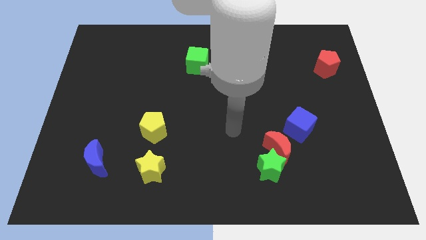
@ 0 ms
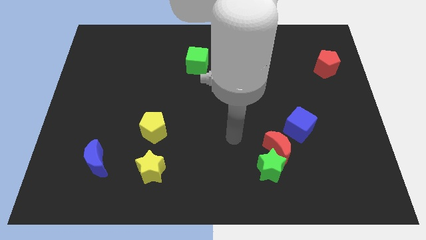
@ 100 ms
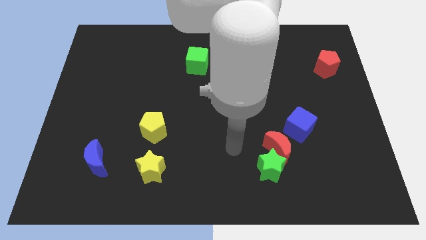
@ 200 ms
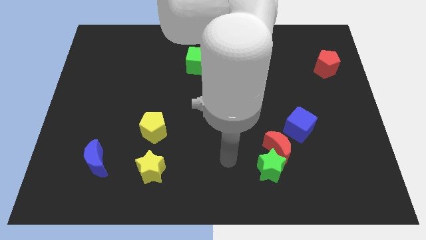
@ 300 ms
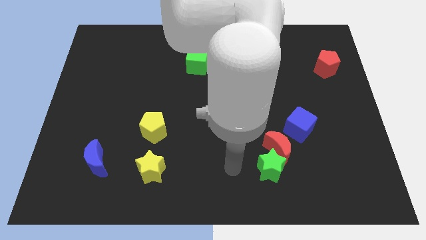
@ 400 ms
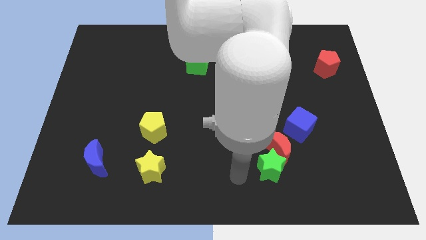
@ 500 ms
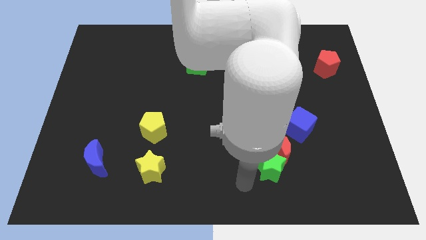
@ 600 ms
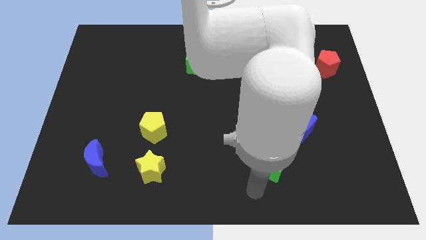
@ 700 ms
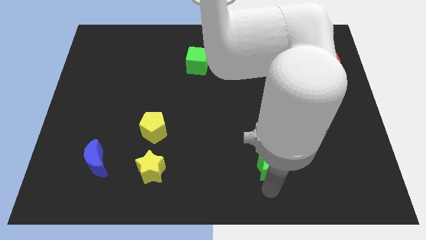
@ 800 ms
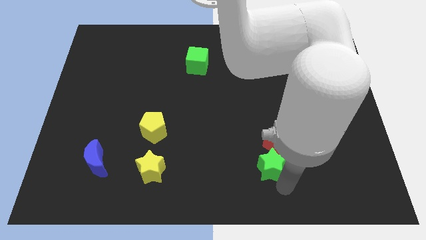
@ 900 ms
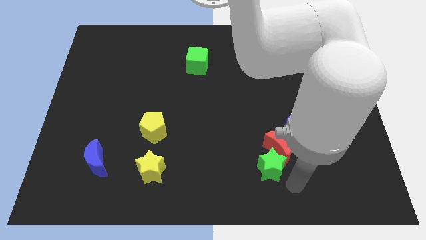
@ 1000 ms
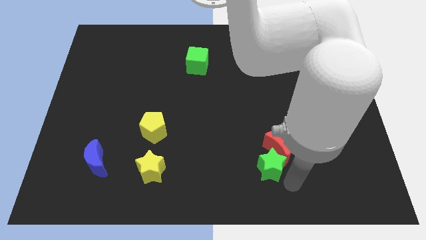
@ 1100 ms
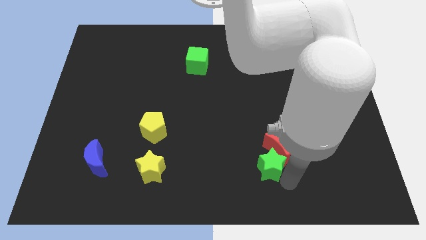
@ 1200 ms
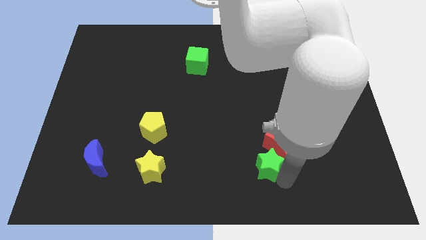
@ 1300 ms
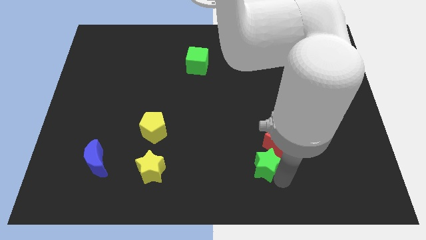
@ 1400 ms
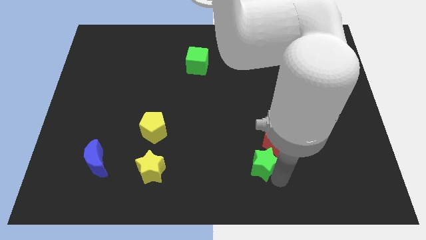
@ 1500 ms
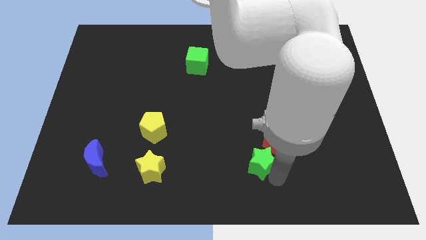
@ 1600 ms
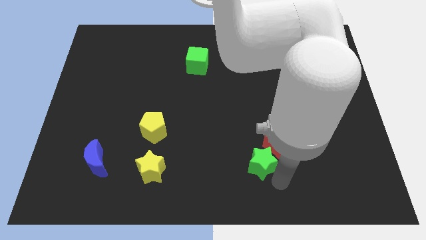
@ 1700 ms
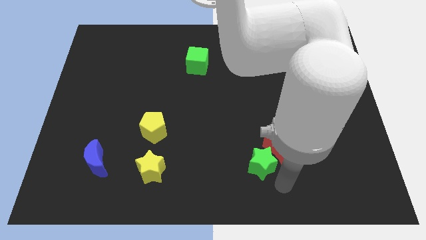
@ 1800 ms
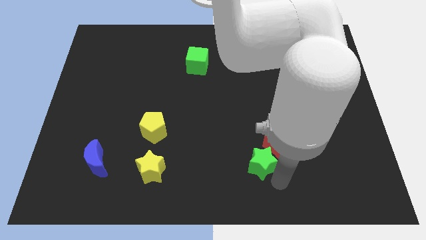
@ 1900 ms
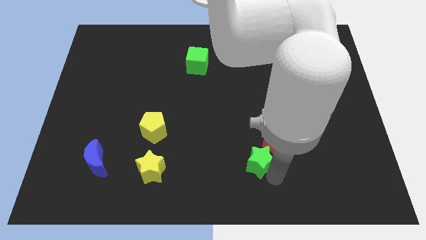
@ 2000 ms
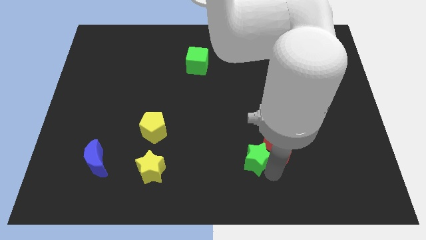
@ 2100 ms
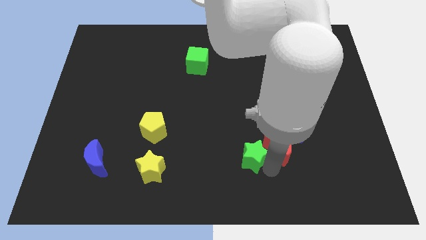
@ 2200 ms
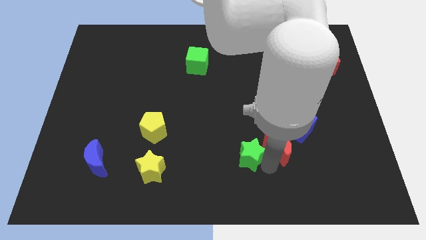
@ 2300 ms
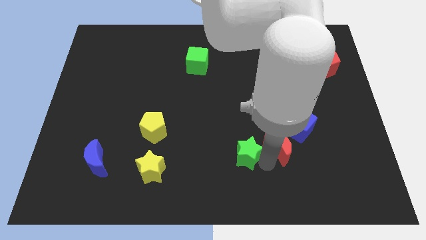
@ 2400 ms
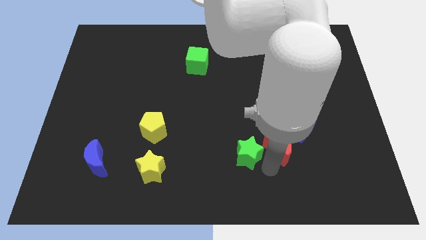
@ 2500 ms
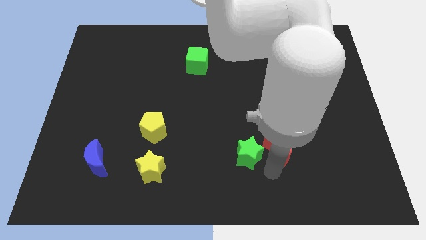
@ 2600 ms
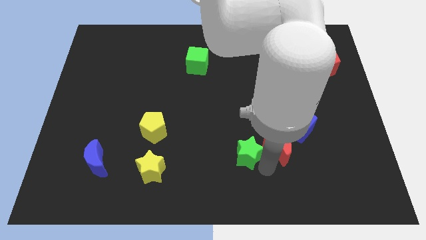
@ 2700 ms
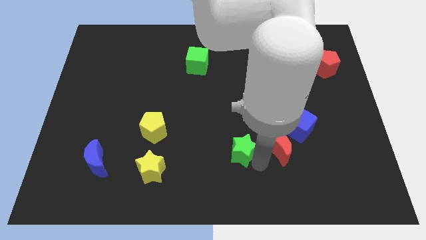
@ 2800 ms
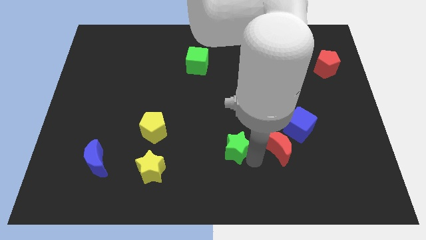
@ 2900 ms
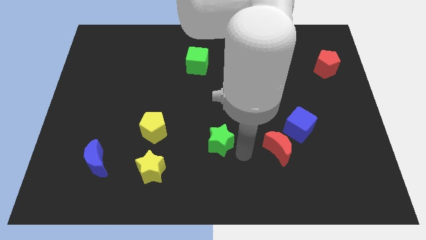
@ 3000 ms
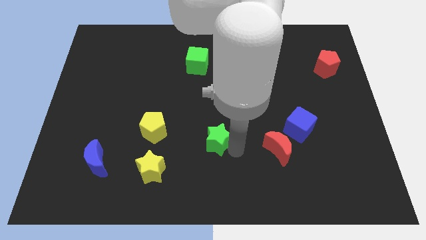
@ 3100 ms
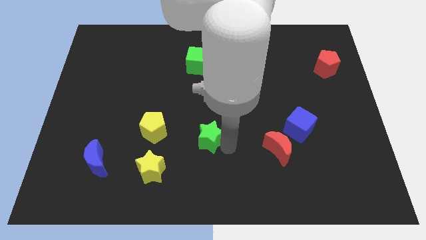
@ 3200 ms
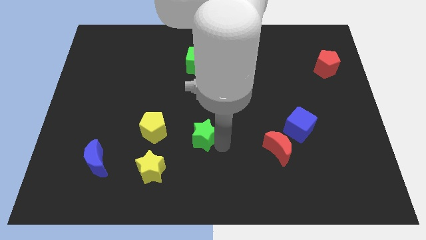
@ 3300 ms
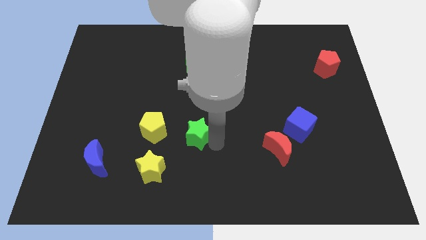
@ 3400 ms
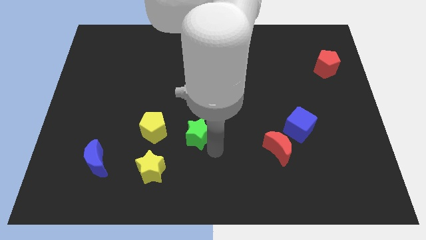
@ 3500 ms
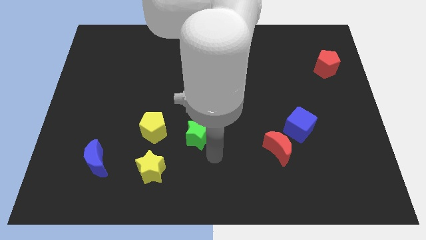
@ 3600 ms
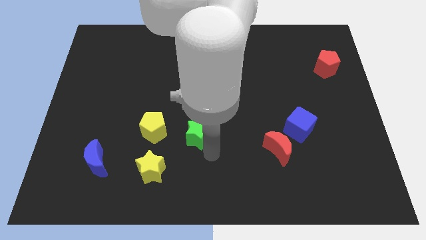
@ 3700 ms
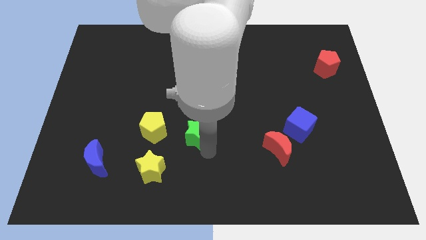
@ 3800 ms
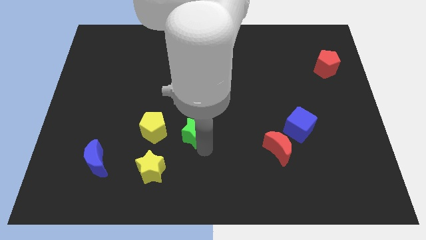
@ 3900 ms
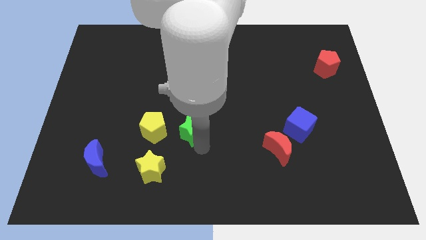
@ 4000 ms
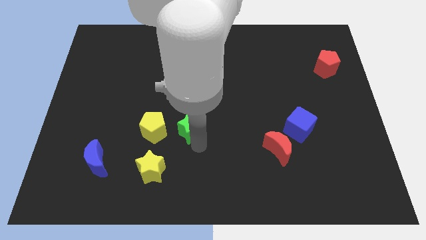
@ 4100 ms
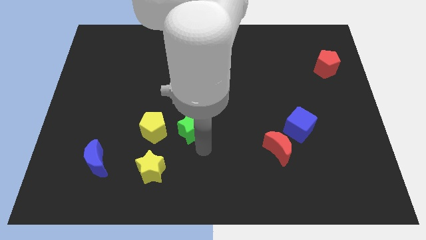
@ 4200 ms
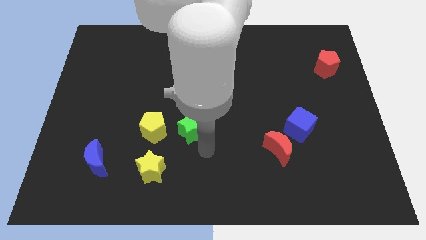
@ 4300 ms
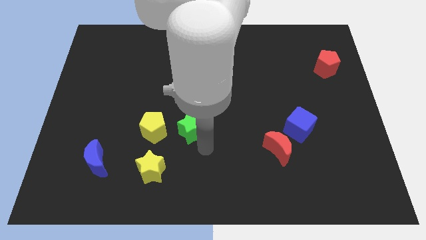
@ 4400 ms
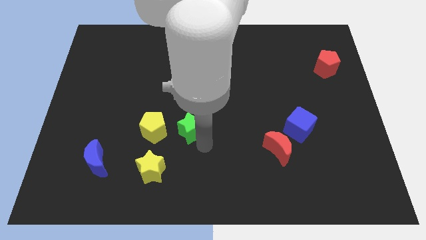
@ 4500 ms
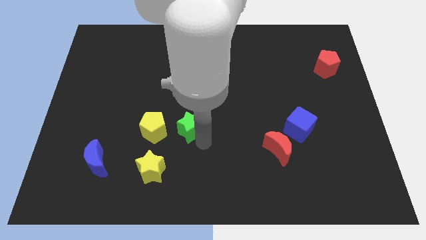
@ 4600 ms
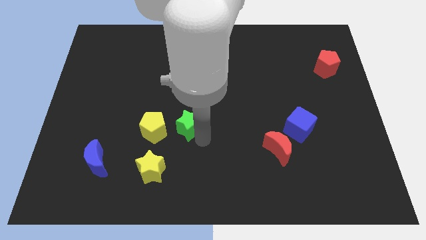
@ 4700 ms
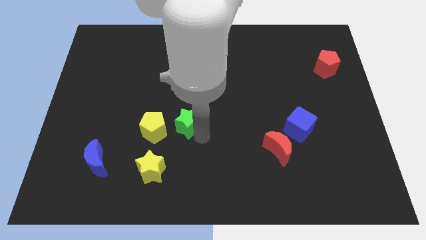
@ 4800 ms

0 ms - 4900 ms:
move the green star diagonally up and to the right of the yellow pentagon

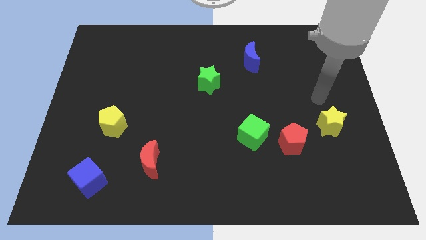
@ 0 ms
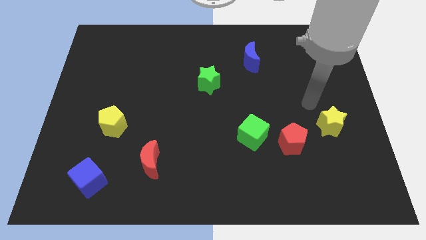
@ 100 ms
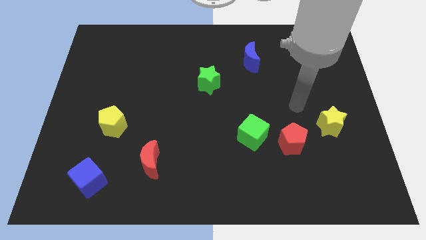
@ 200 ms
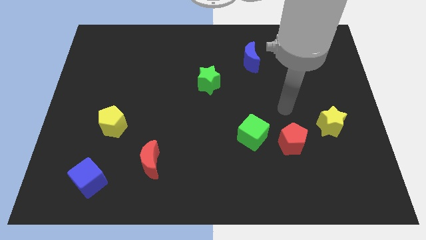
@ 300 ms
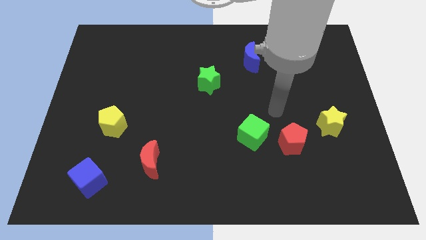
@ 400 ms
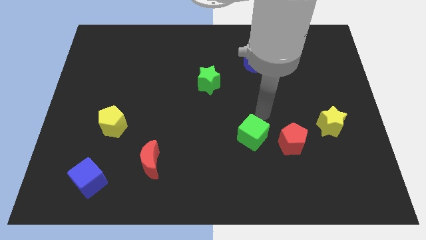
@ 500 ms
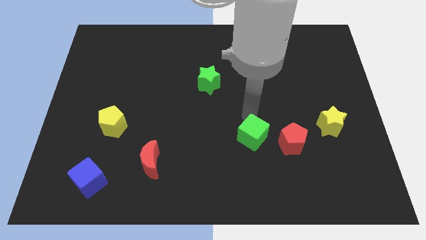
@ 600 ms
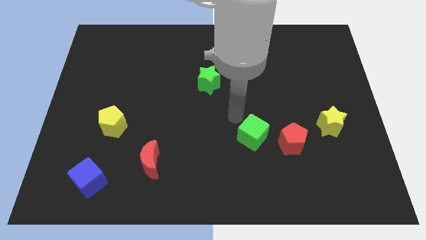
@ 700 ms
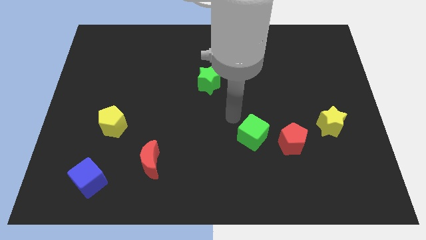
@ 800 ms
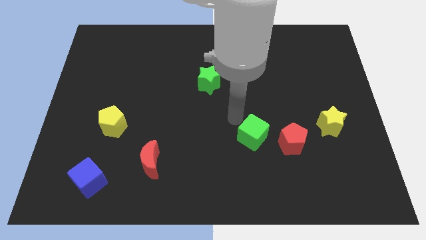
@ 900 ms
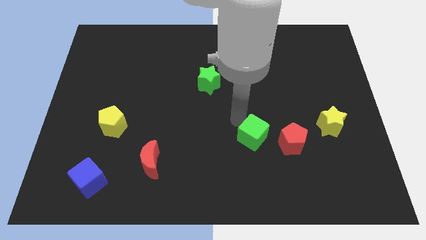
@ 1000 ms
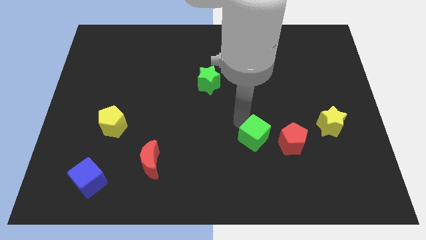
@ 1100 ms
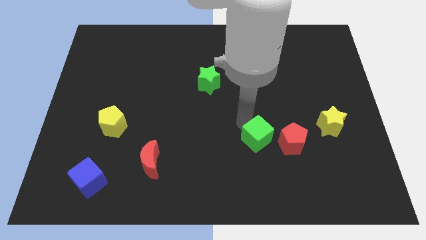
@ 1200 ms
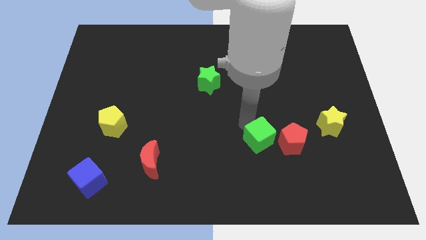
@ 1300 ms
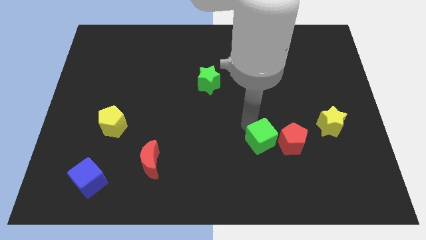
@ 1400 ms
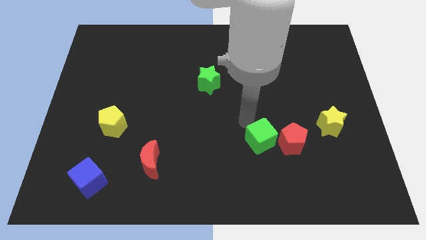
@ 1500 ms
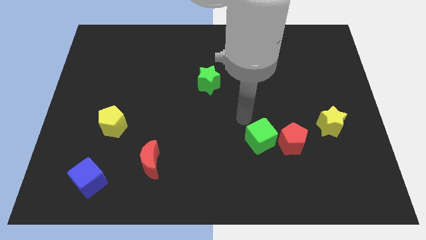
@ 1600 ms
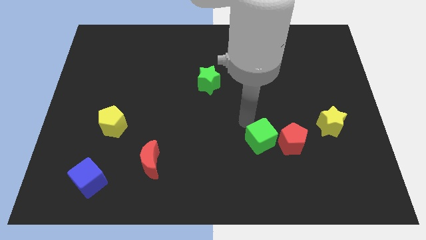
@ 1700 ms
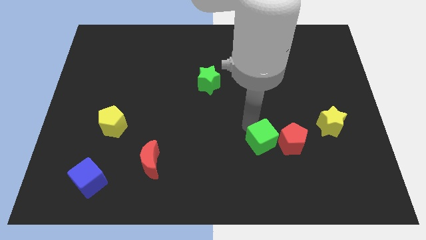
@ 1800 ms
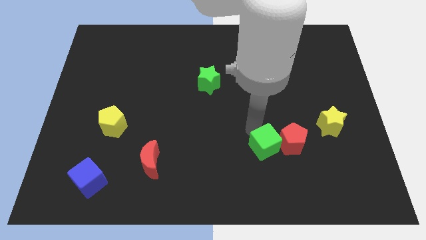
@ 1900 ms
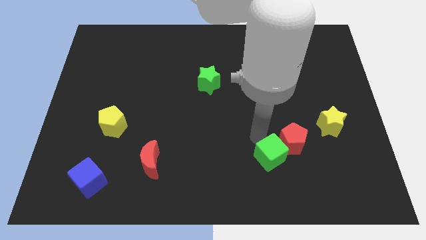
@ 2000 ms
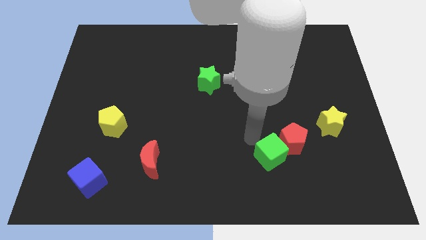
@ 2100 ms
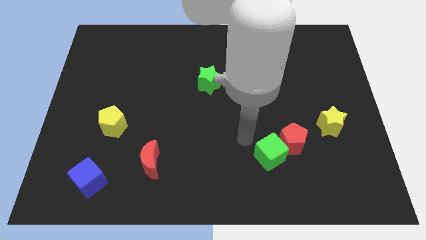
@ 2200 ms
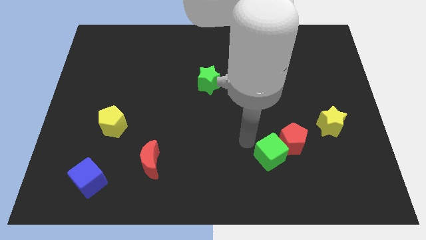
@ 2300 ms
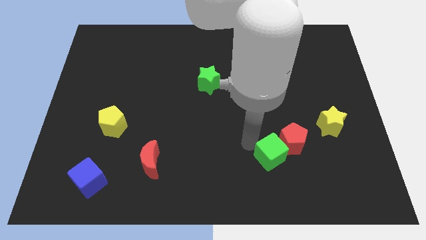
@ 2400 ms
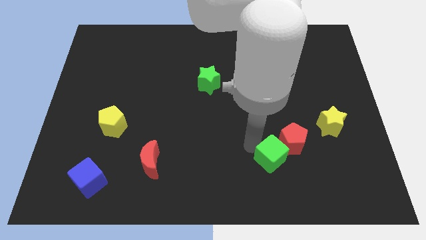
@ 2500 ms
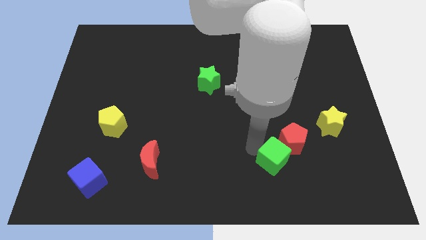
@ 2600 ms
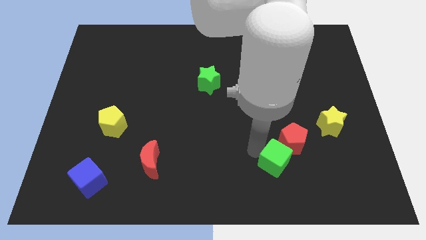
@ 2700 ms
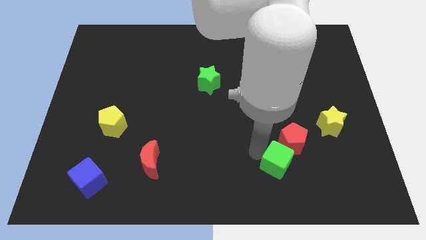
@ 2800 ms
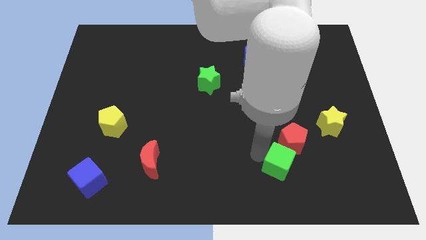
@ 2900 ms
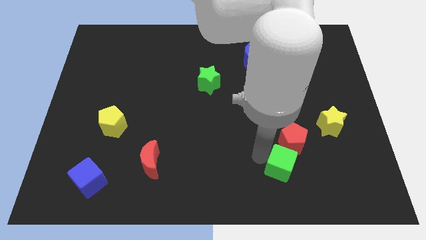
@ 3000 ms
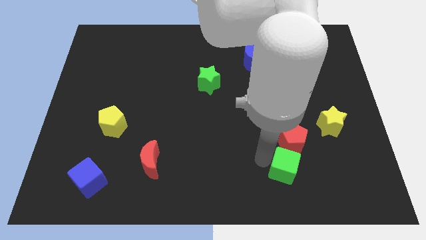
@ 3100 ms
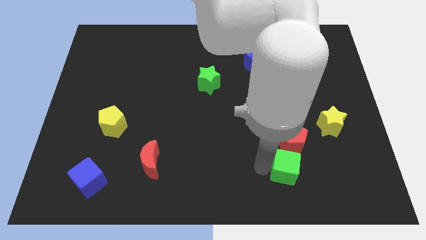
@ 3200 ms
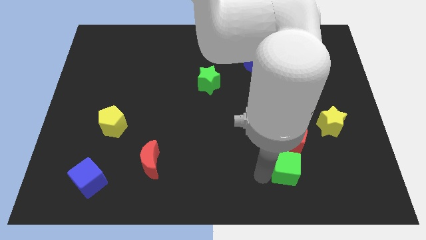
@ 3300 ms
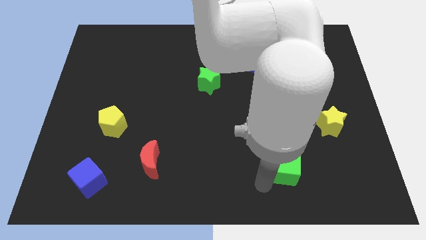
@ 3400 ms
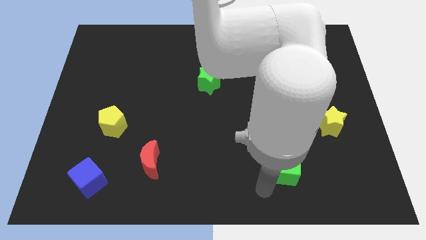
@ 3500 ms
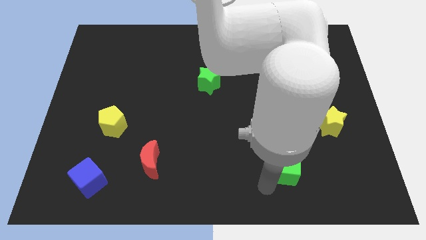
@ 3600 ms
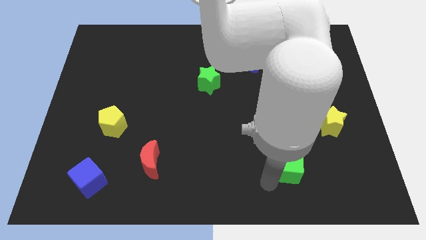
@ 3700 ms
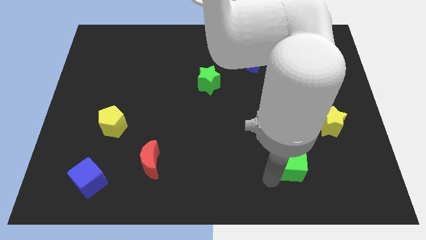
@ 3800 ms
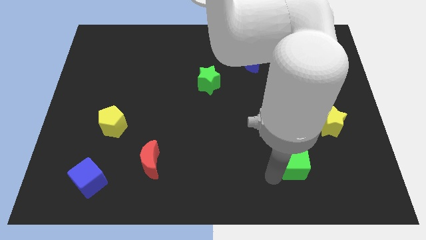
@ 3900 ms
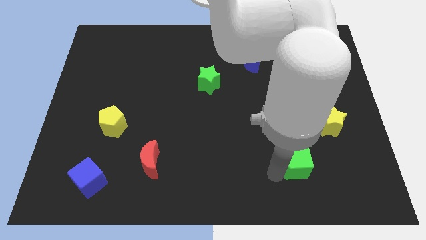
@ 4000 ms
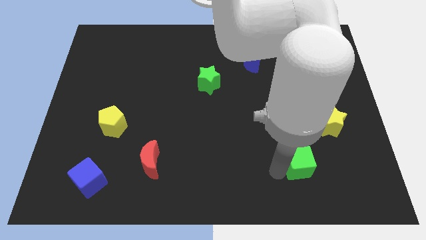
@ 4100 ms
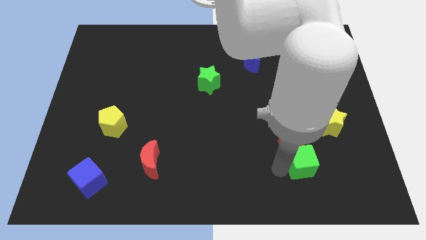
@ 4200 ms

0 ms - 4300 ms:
slide the green cube to the bottom left side of the yellow star
